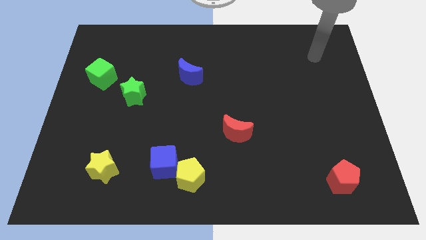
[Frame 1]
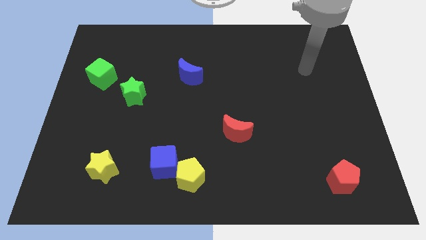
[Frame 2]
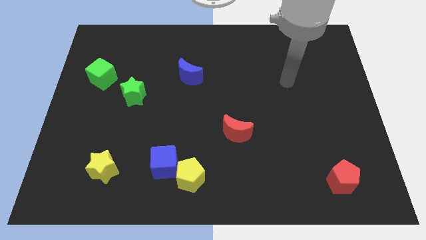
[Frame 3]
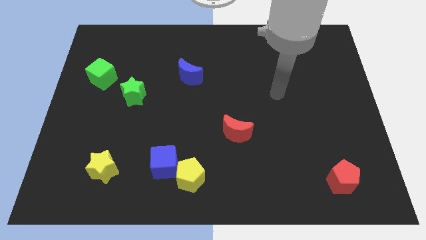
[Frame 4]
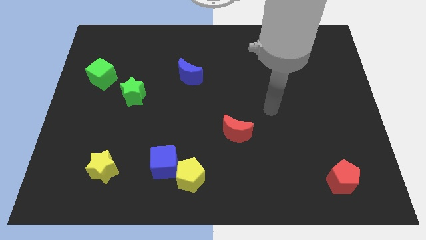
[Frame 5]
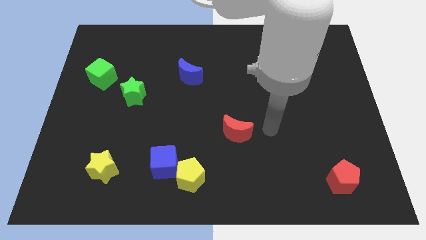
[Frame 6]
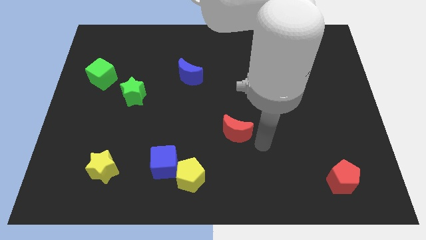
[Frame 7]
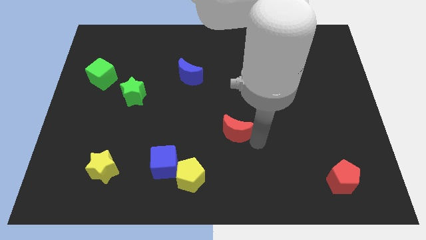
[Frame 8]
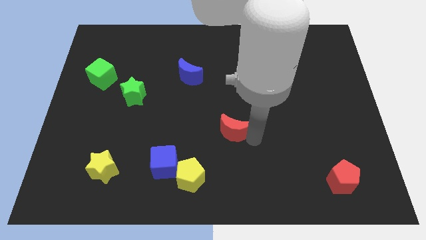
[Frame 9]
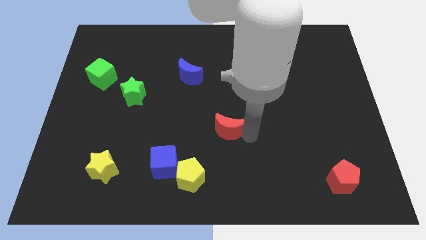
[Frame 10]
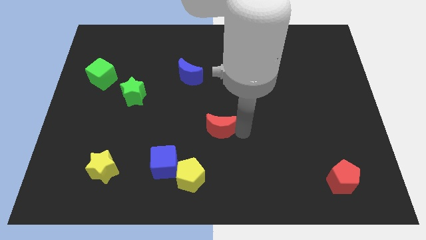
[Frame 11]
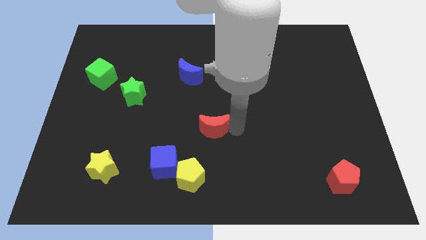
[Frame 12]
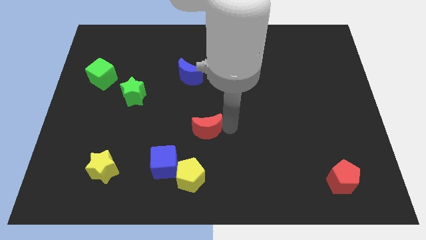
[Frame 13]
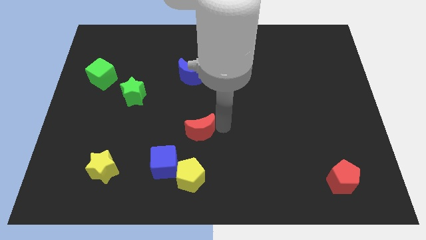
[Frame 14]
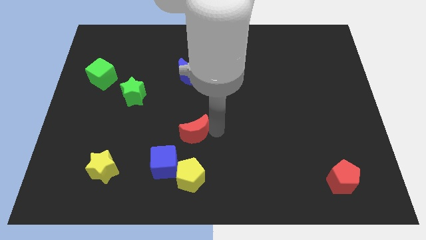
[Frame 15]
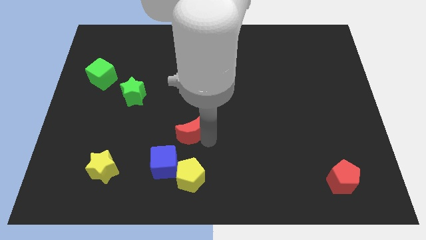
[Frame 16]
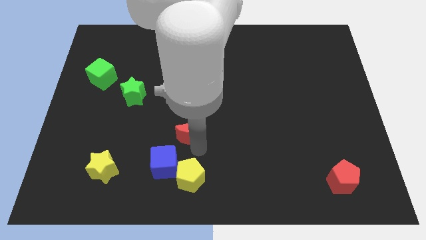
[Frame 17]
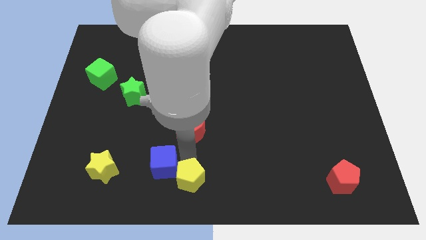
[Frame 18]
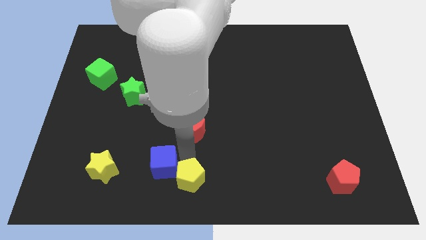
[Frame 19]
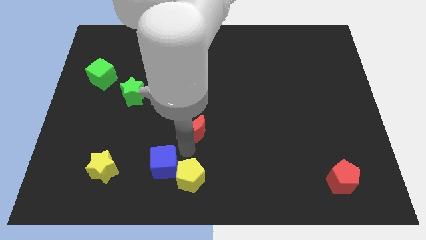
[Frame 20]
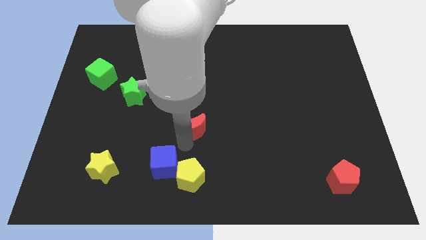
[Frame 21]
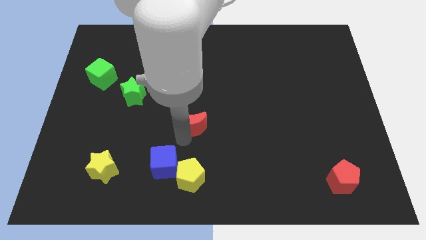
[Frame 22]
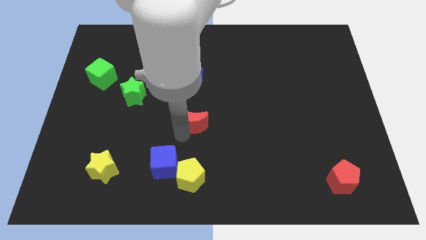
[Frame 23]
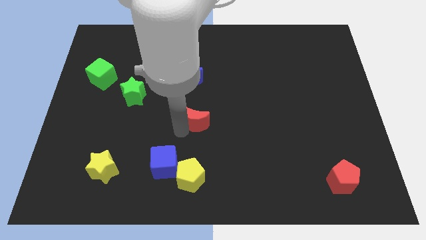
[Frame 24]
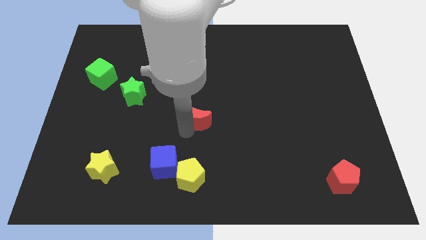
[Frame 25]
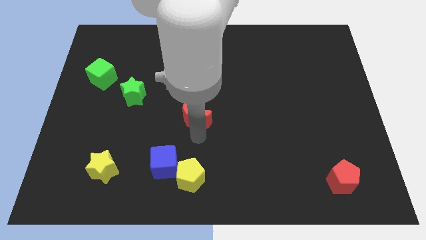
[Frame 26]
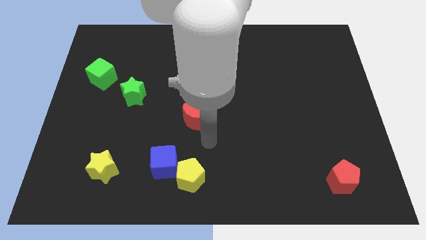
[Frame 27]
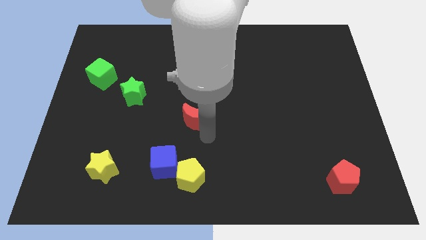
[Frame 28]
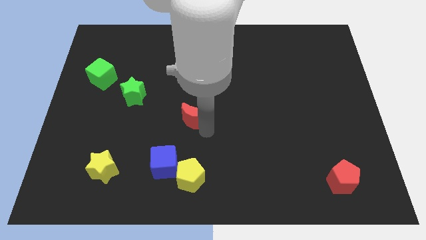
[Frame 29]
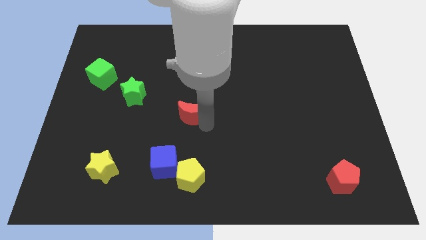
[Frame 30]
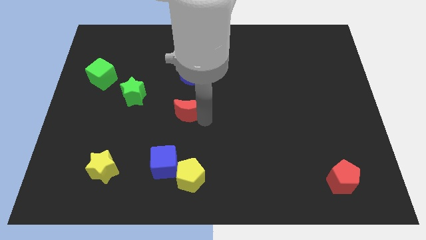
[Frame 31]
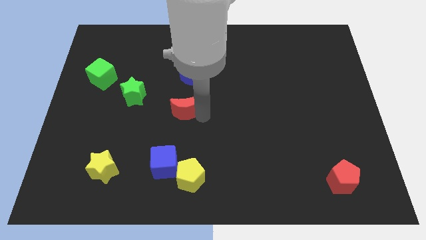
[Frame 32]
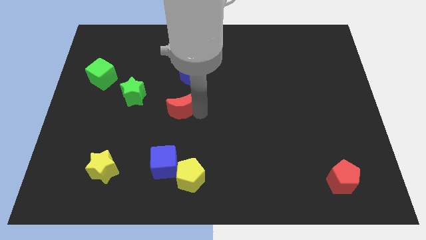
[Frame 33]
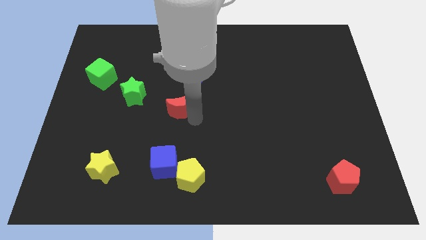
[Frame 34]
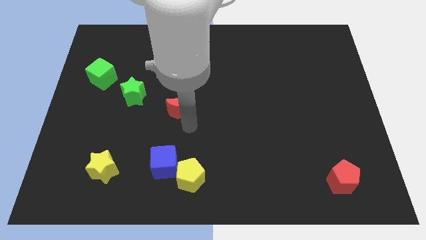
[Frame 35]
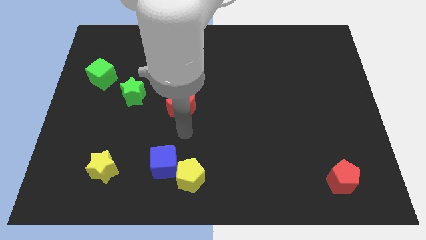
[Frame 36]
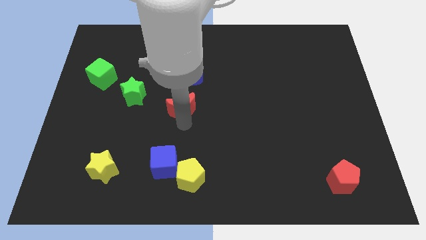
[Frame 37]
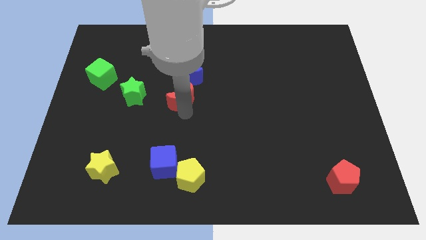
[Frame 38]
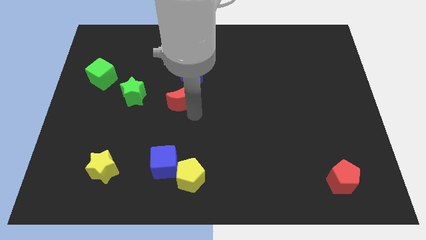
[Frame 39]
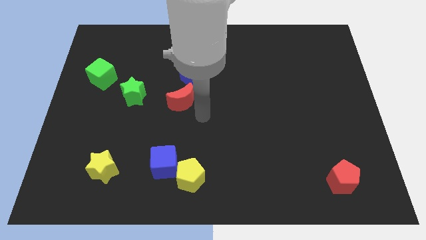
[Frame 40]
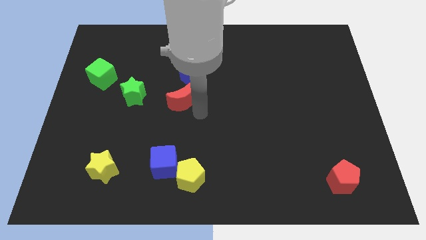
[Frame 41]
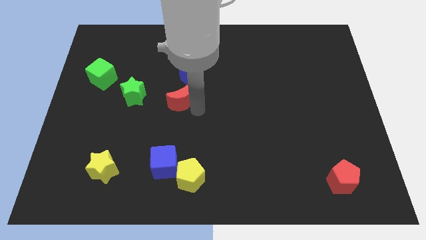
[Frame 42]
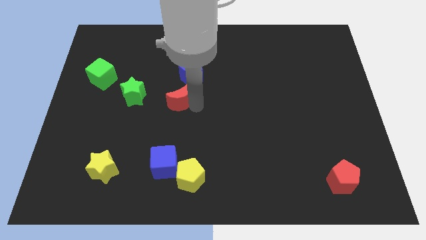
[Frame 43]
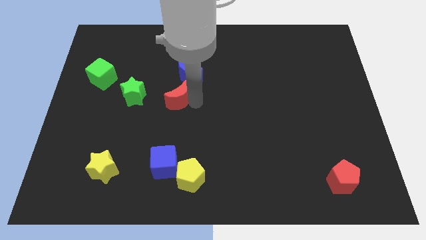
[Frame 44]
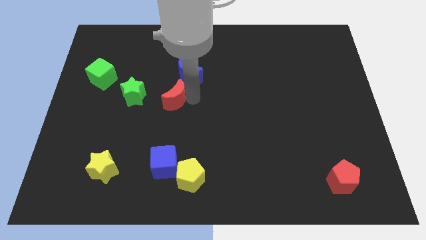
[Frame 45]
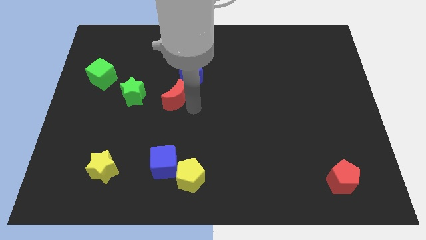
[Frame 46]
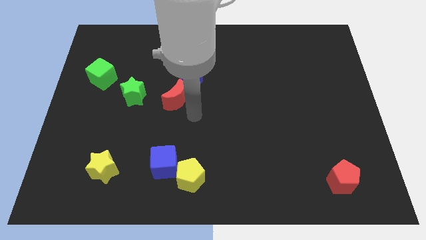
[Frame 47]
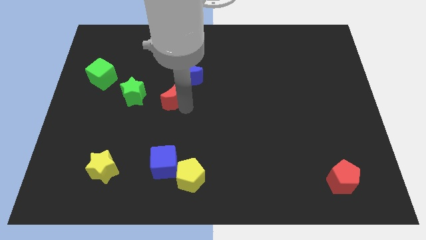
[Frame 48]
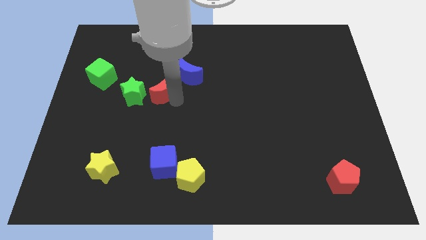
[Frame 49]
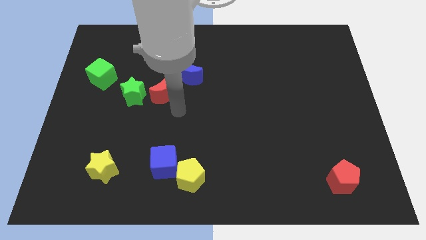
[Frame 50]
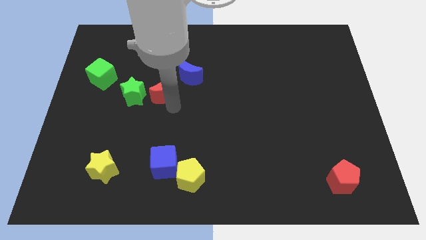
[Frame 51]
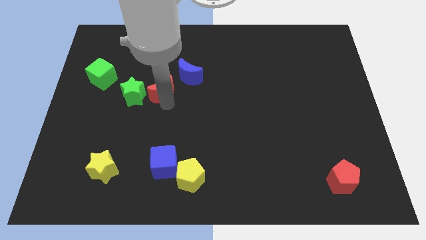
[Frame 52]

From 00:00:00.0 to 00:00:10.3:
move the red moon up and left

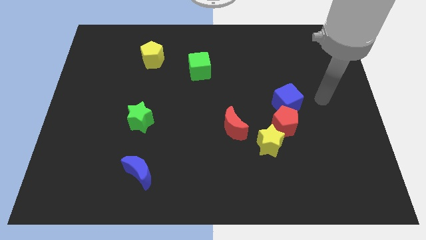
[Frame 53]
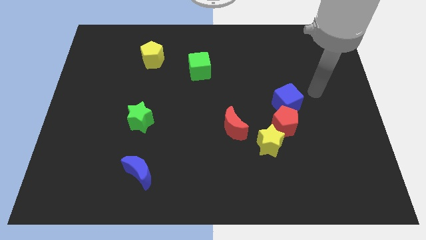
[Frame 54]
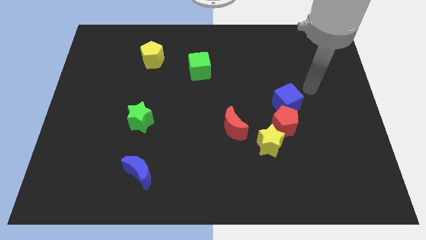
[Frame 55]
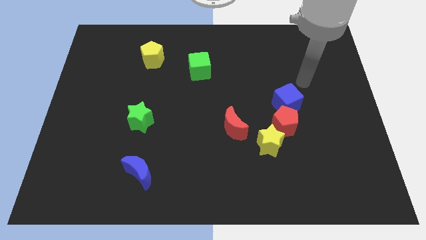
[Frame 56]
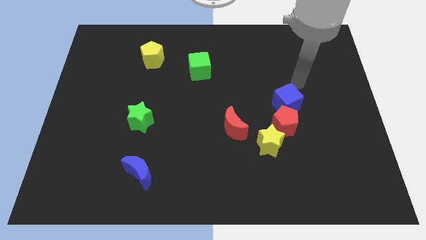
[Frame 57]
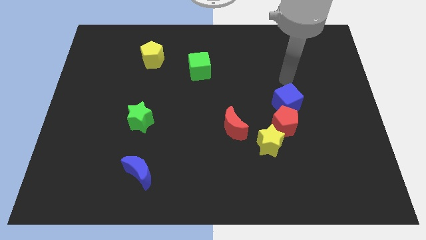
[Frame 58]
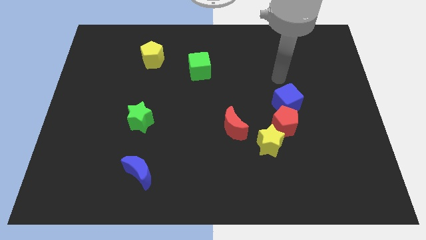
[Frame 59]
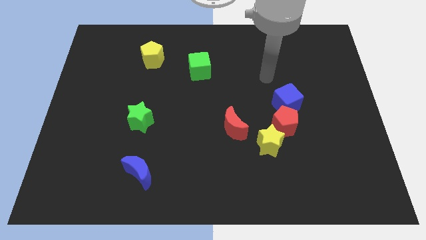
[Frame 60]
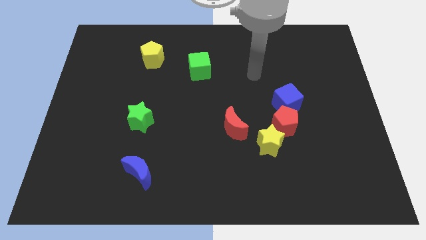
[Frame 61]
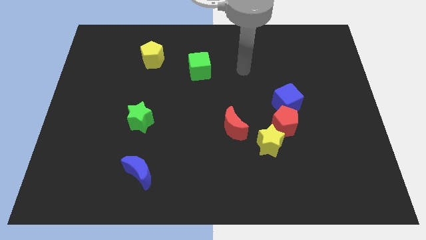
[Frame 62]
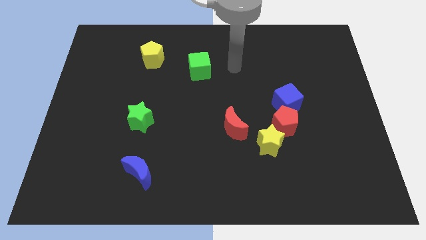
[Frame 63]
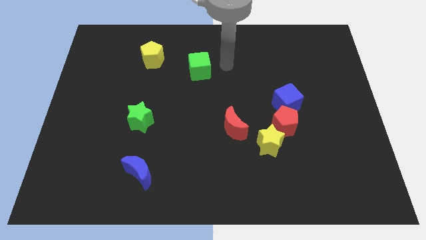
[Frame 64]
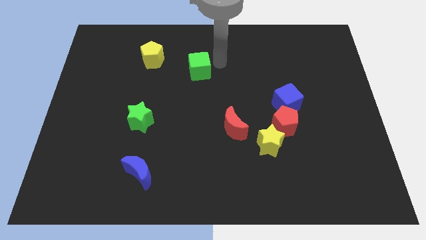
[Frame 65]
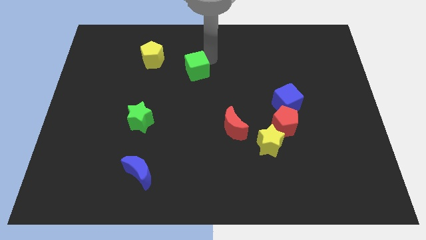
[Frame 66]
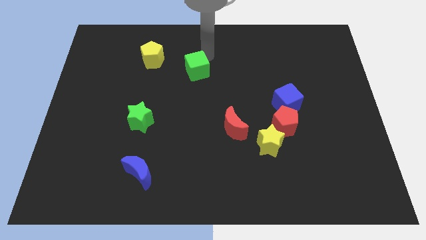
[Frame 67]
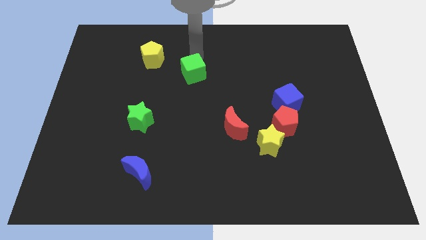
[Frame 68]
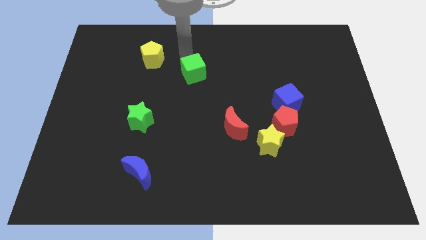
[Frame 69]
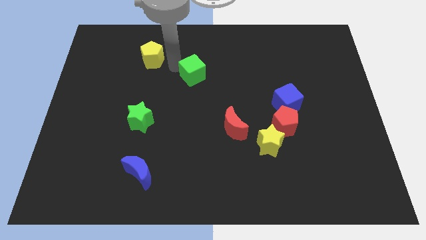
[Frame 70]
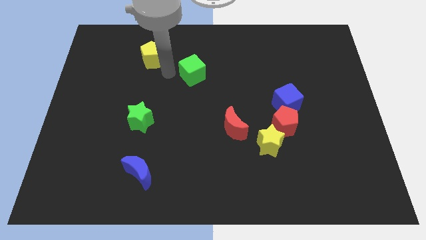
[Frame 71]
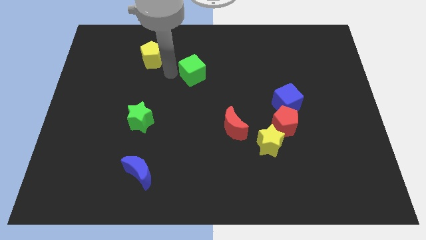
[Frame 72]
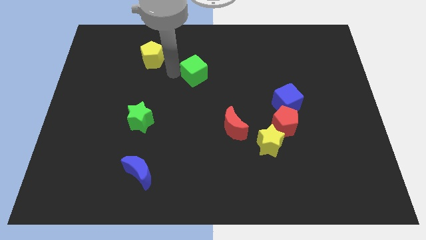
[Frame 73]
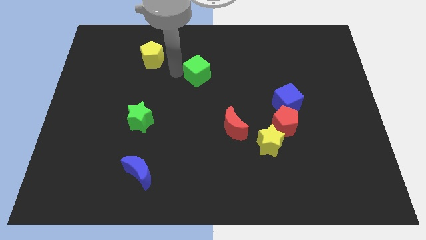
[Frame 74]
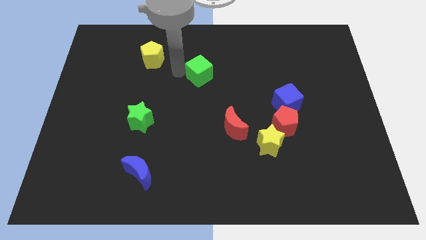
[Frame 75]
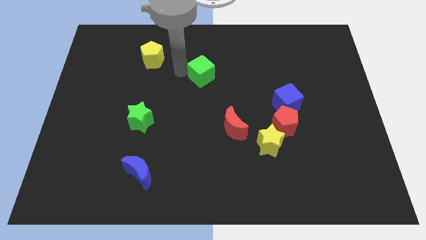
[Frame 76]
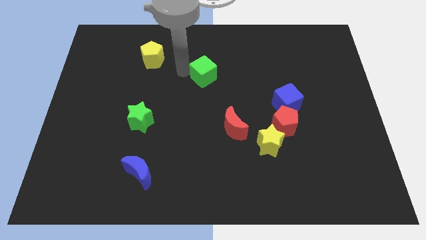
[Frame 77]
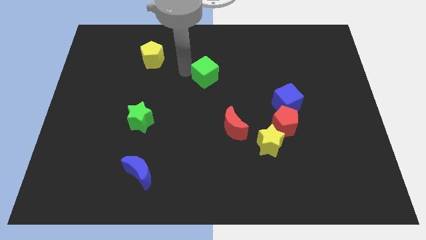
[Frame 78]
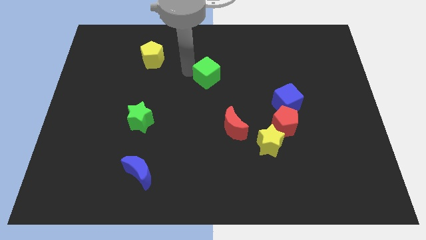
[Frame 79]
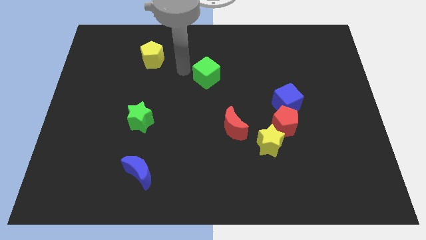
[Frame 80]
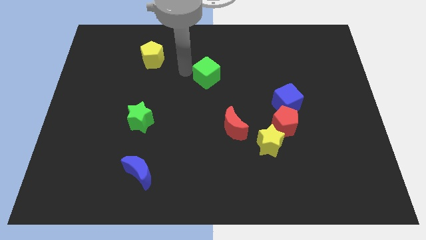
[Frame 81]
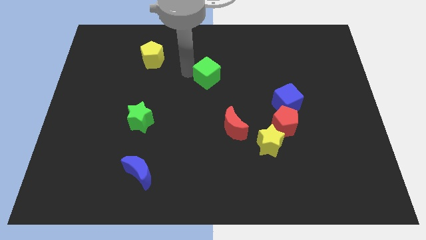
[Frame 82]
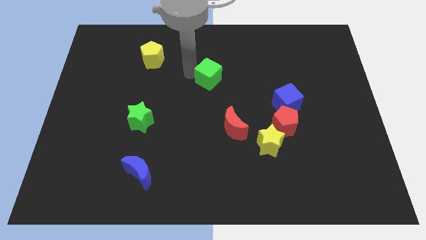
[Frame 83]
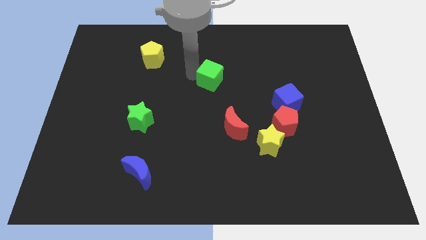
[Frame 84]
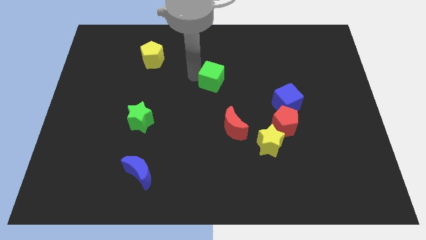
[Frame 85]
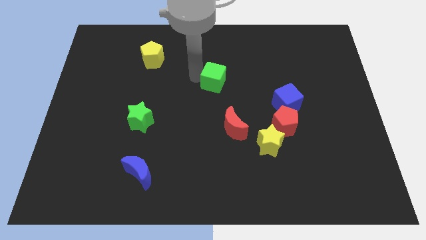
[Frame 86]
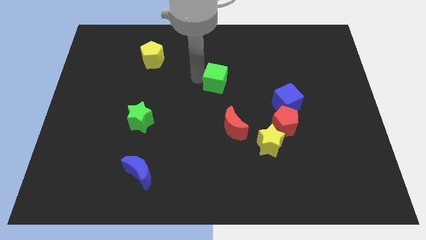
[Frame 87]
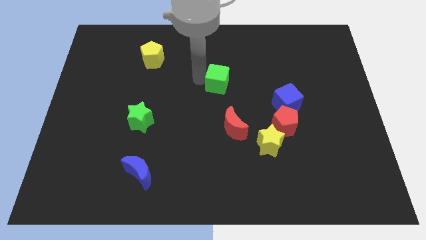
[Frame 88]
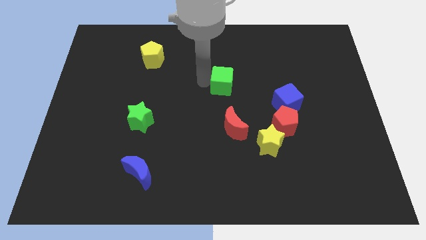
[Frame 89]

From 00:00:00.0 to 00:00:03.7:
slightly push the green cube downwards and to the right diagonally
